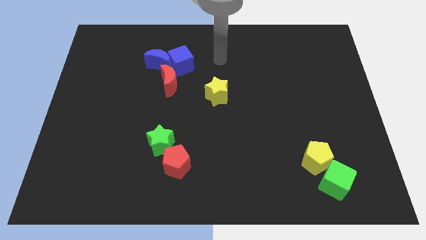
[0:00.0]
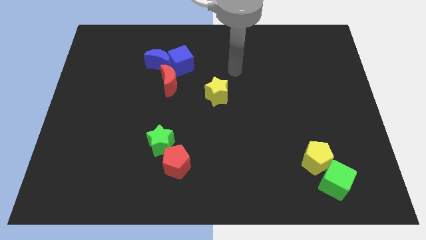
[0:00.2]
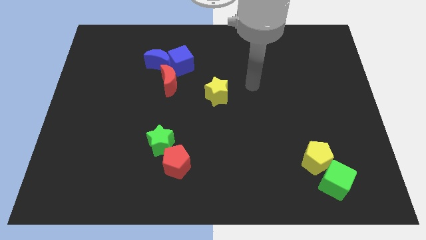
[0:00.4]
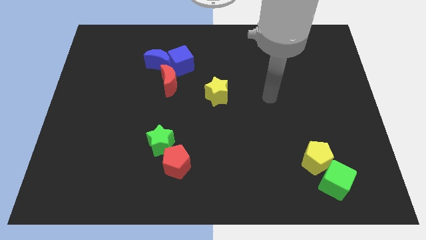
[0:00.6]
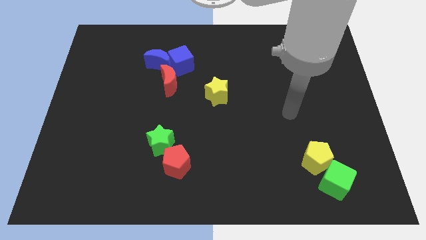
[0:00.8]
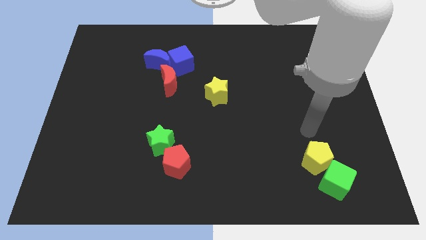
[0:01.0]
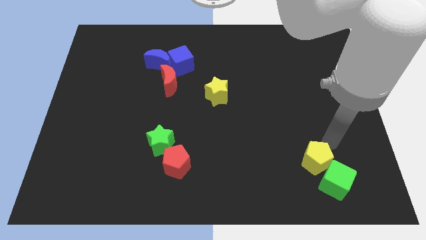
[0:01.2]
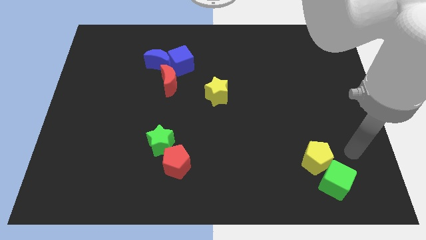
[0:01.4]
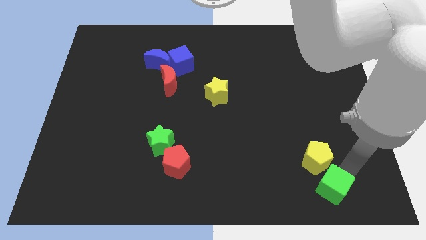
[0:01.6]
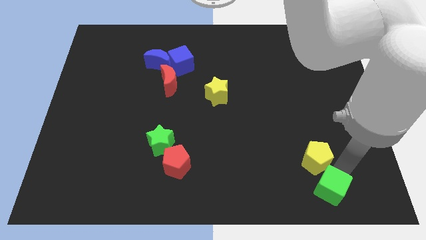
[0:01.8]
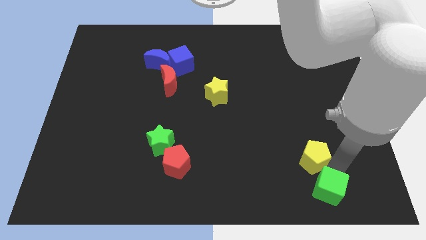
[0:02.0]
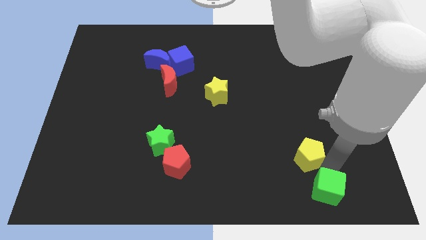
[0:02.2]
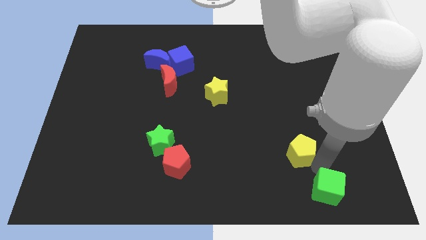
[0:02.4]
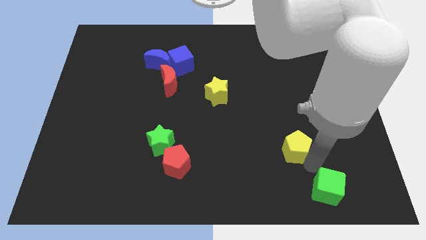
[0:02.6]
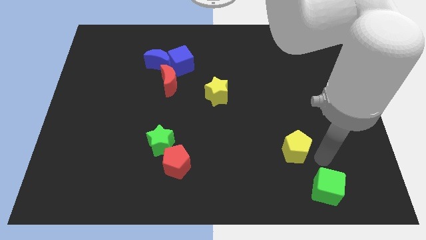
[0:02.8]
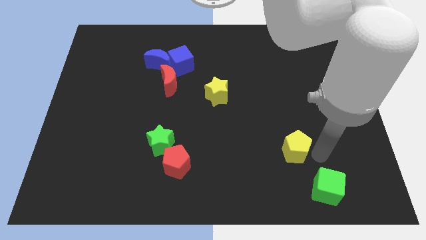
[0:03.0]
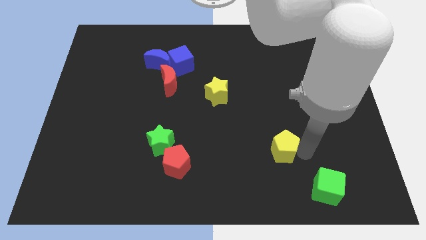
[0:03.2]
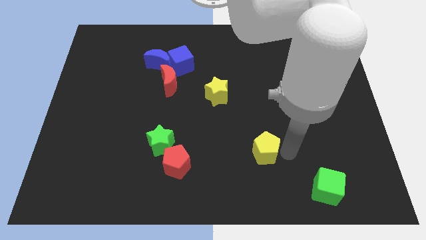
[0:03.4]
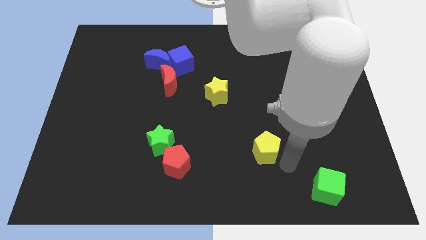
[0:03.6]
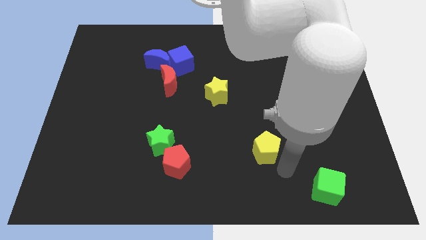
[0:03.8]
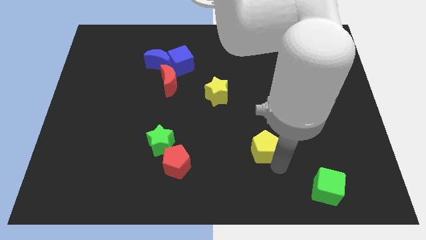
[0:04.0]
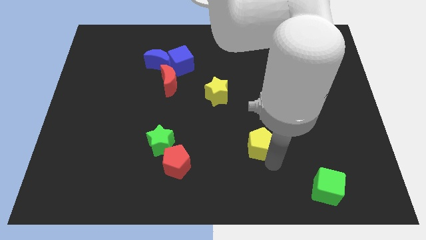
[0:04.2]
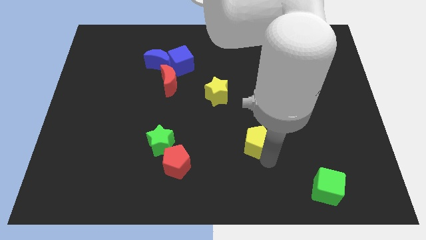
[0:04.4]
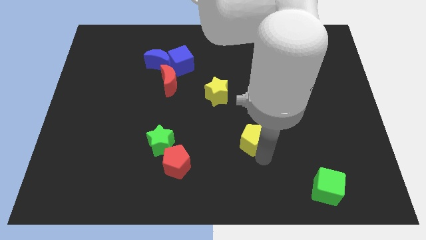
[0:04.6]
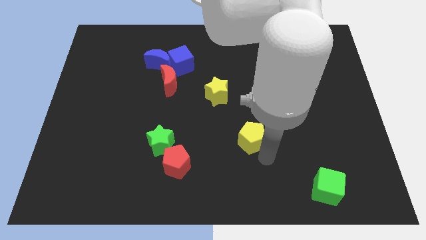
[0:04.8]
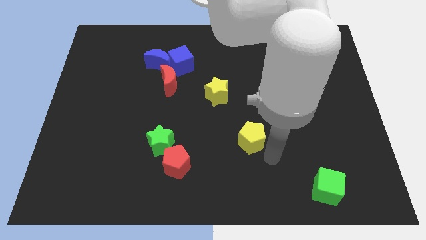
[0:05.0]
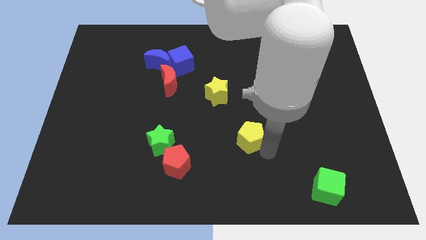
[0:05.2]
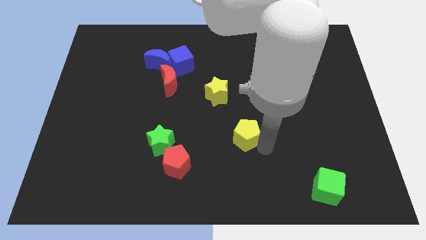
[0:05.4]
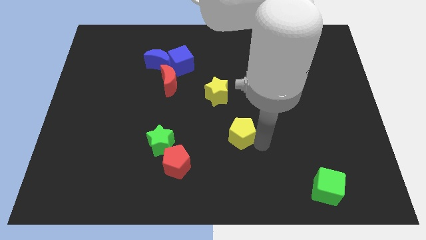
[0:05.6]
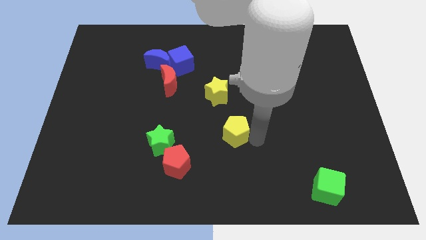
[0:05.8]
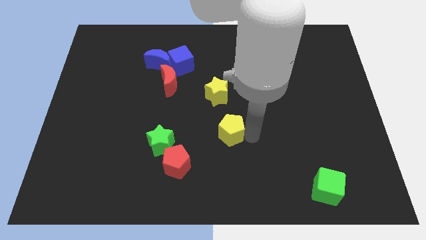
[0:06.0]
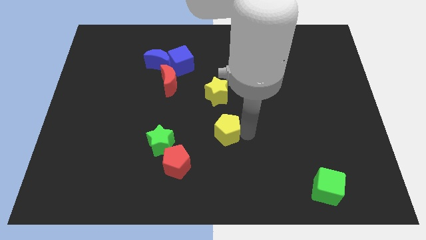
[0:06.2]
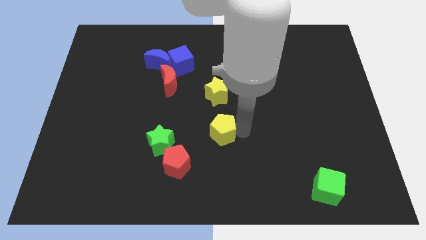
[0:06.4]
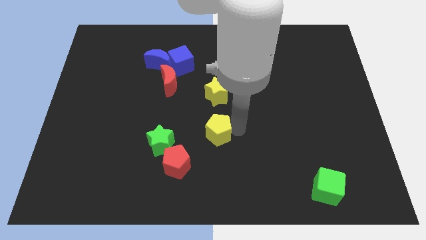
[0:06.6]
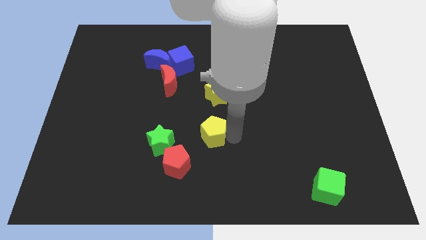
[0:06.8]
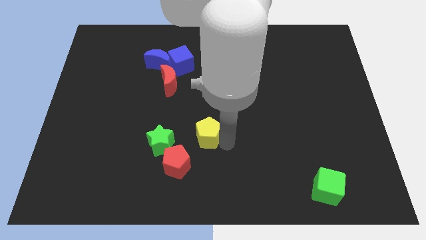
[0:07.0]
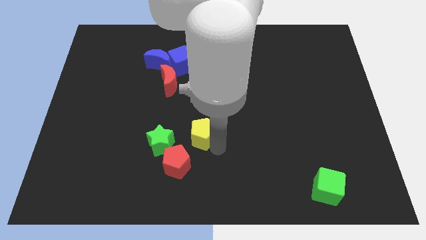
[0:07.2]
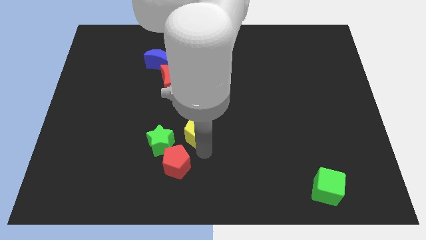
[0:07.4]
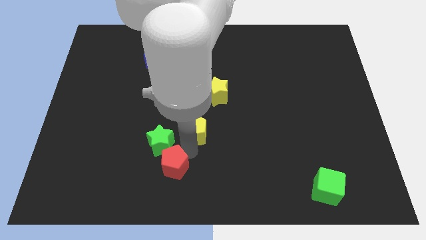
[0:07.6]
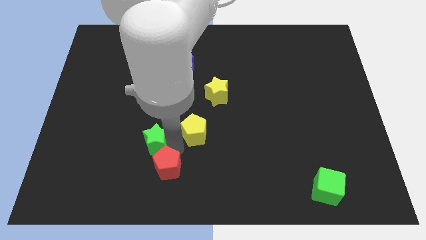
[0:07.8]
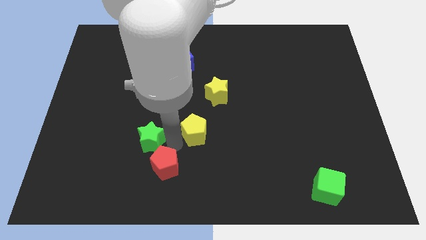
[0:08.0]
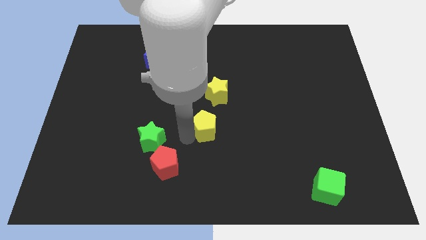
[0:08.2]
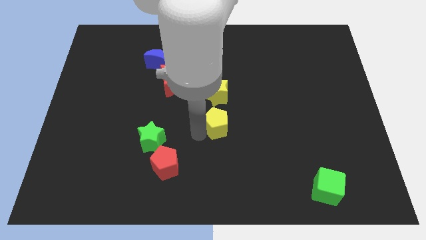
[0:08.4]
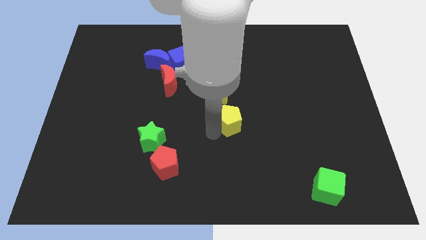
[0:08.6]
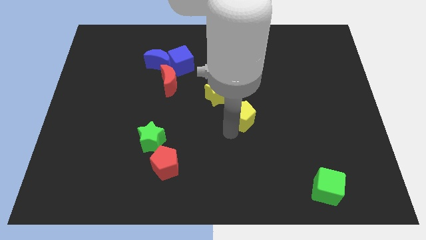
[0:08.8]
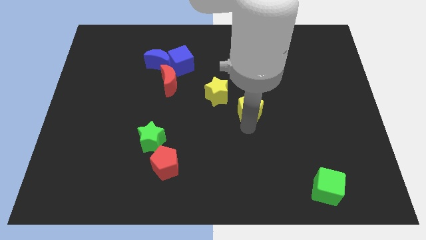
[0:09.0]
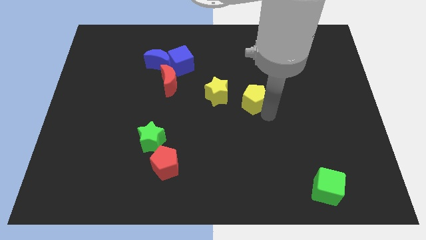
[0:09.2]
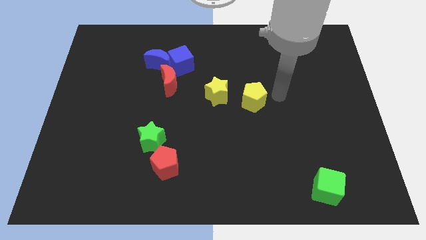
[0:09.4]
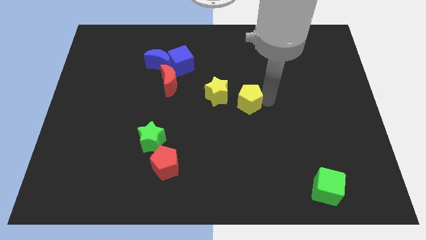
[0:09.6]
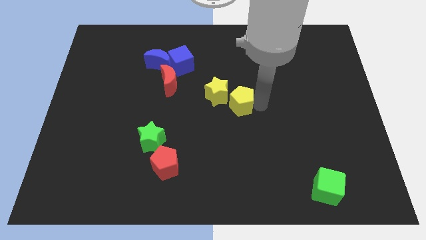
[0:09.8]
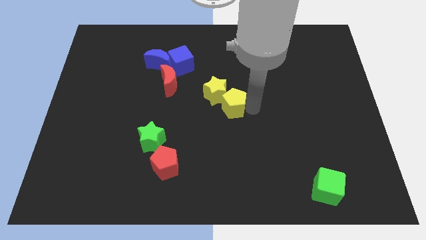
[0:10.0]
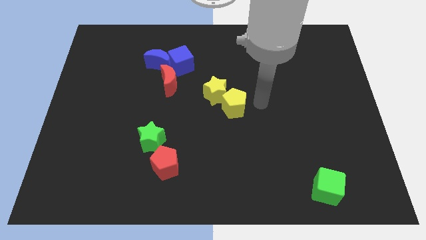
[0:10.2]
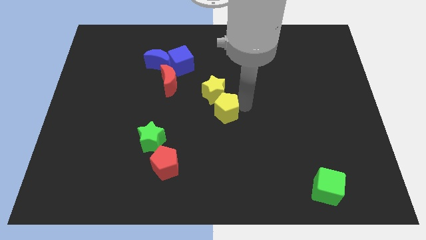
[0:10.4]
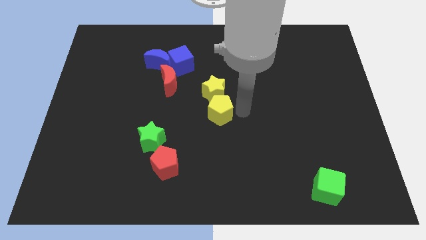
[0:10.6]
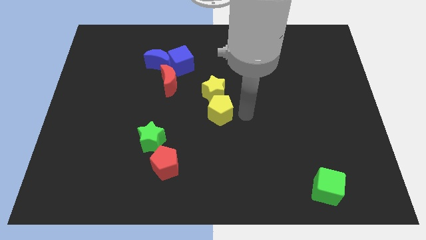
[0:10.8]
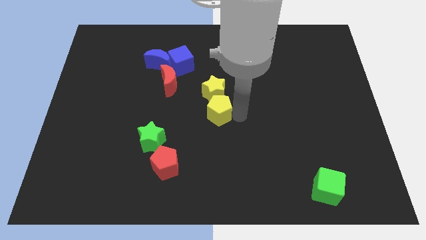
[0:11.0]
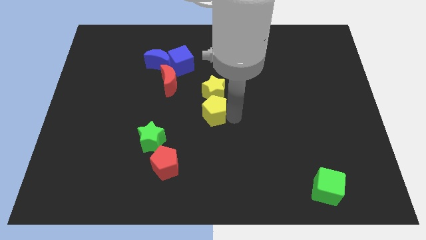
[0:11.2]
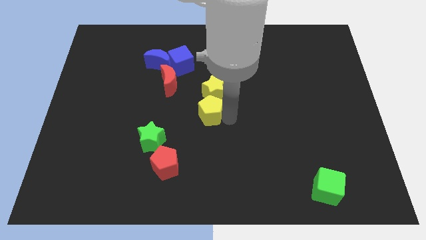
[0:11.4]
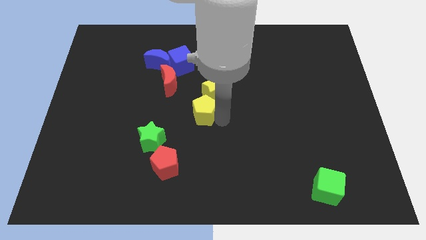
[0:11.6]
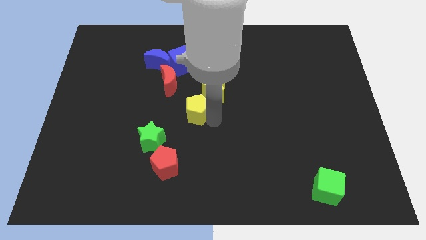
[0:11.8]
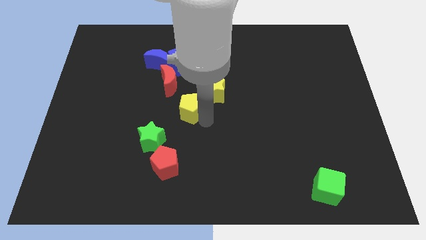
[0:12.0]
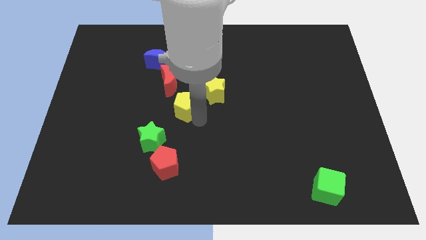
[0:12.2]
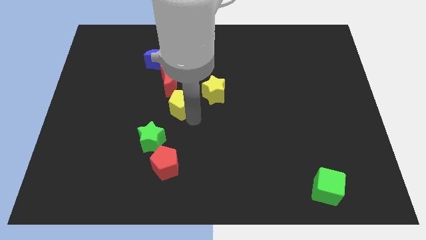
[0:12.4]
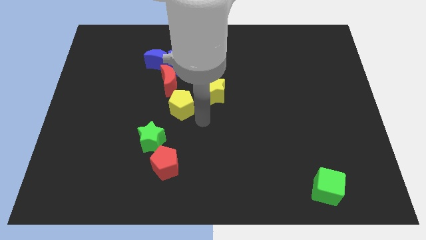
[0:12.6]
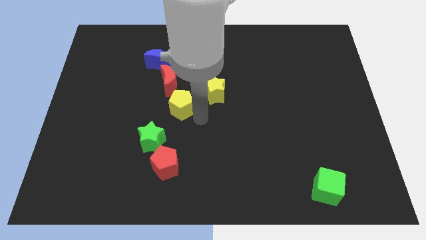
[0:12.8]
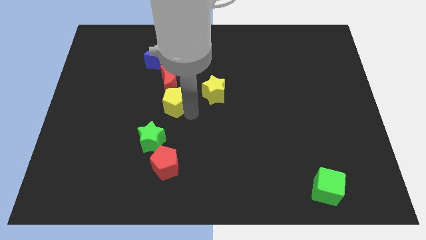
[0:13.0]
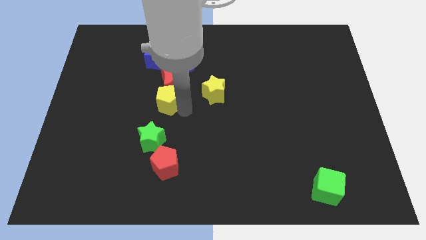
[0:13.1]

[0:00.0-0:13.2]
push the yellow pentagon to the bottom of the blue moon
